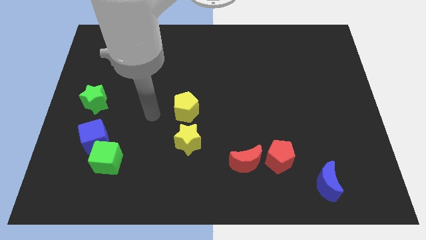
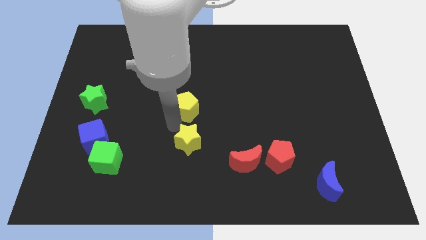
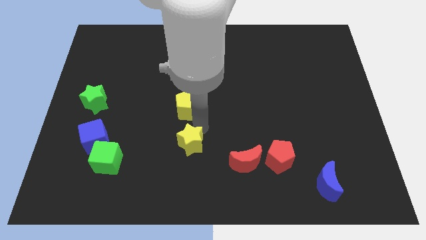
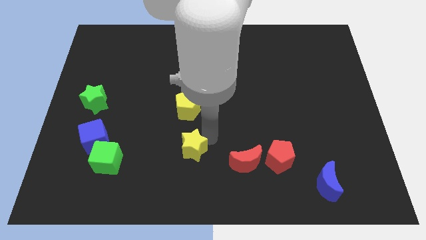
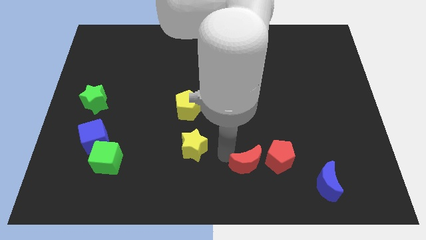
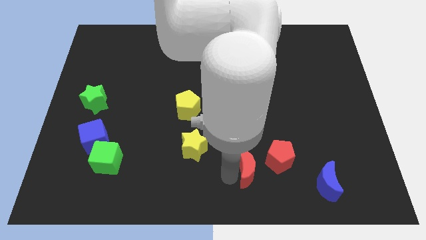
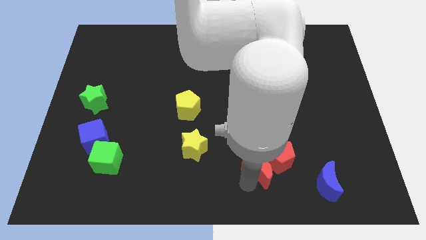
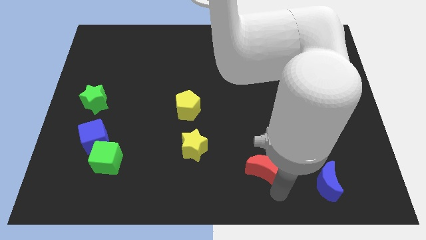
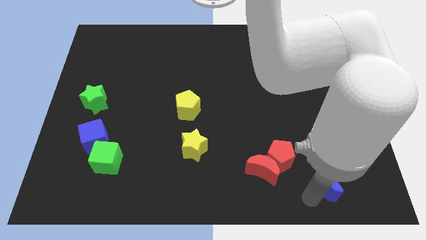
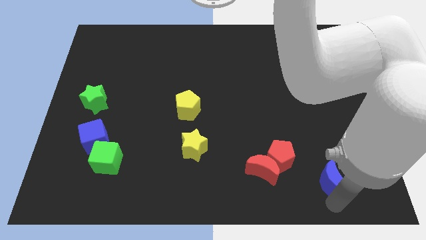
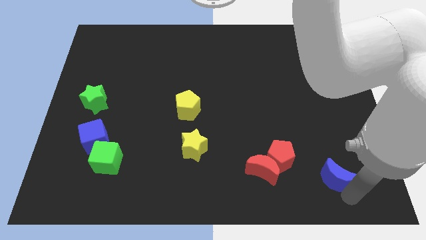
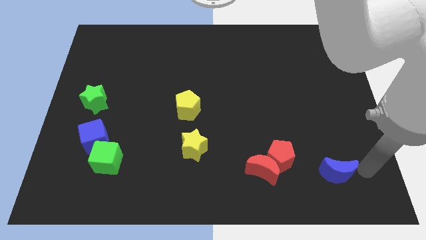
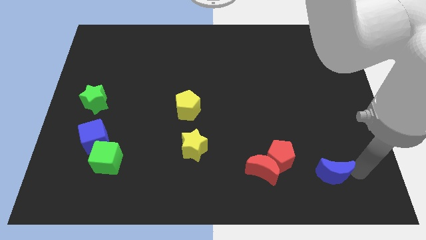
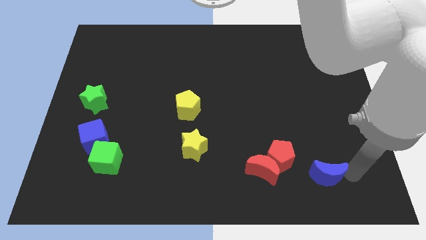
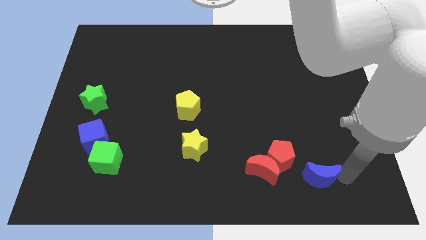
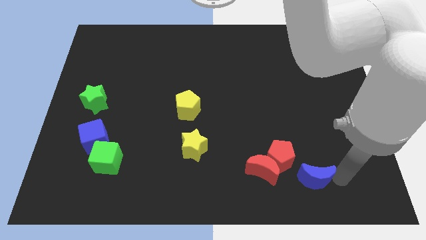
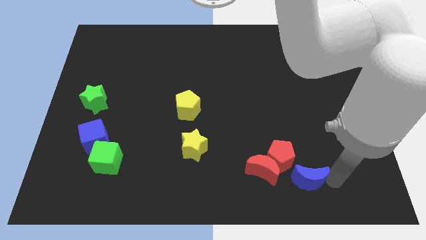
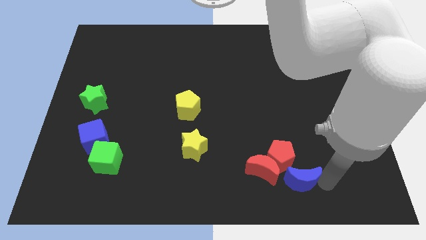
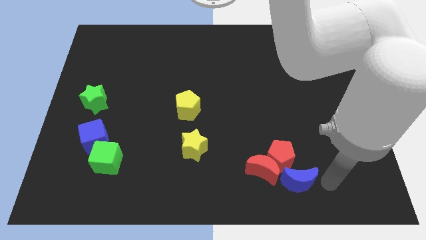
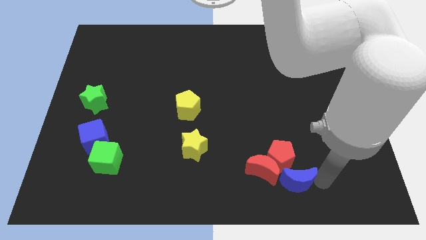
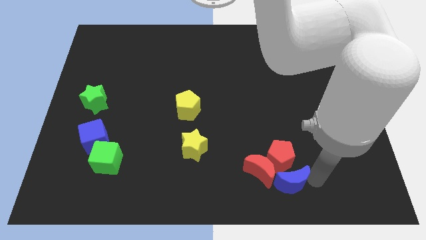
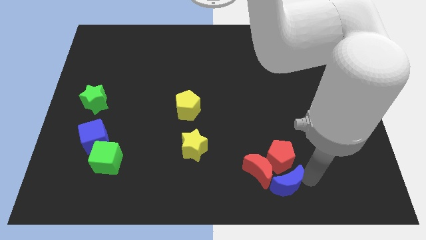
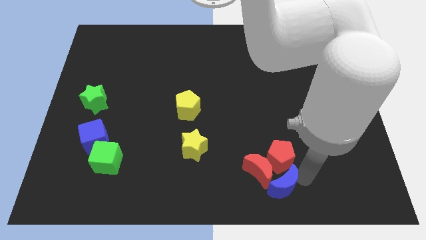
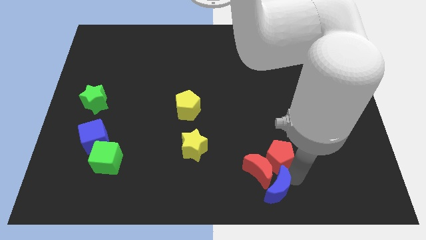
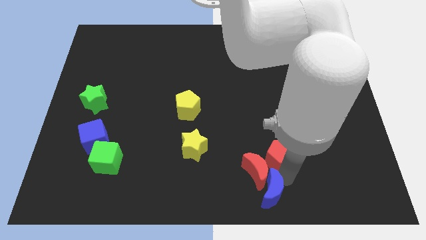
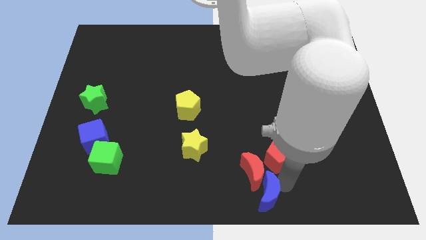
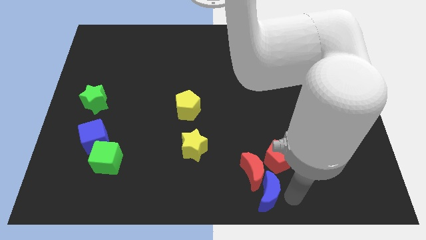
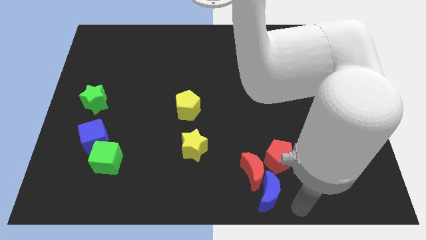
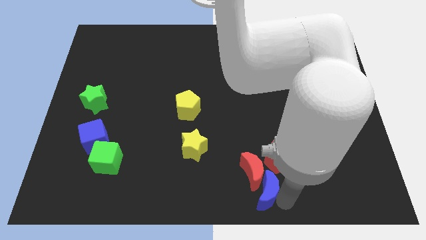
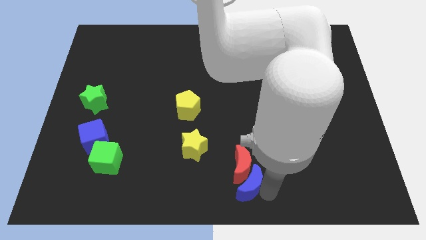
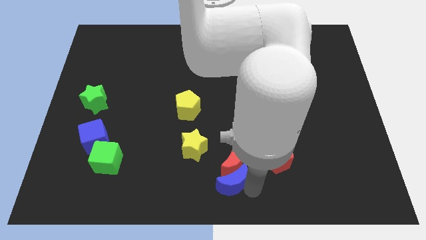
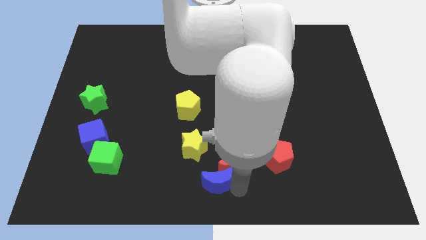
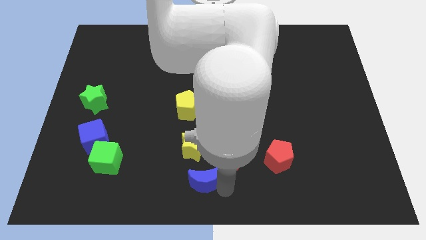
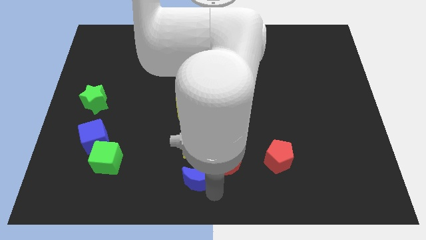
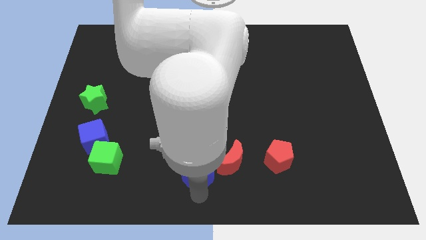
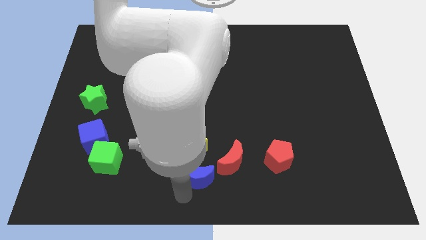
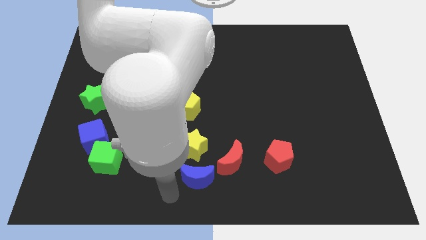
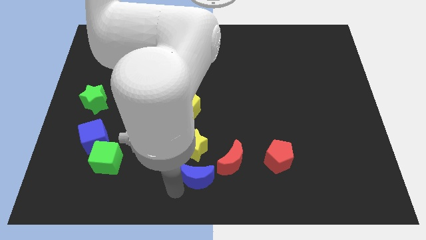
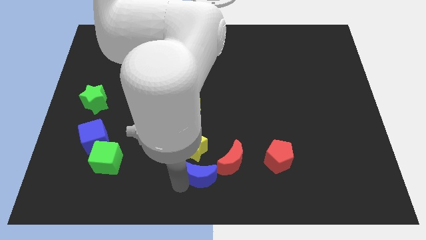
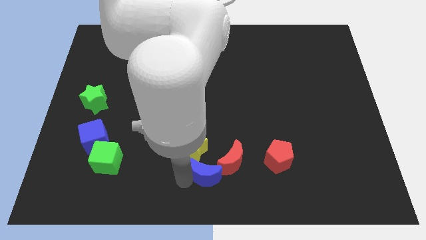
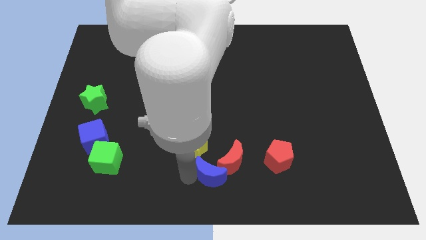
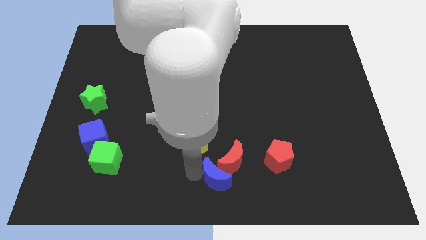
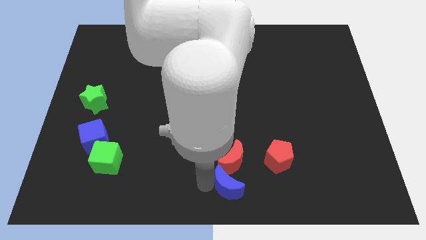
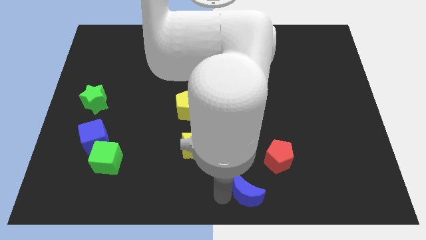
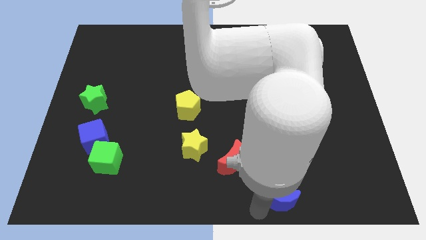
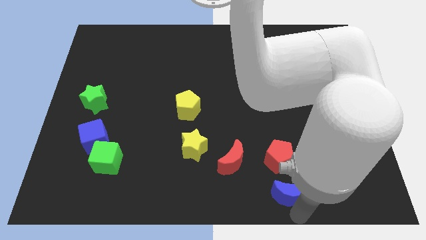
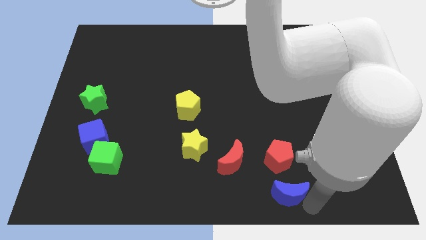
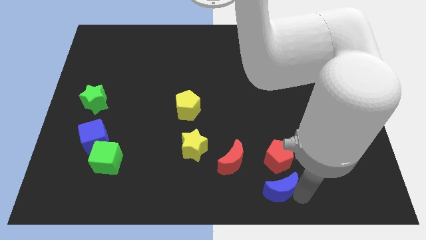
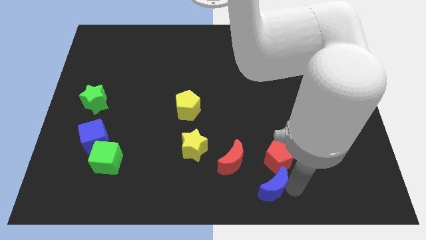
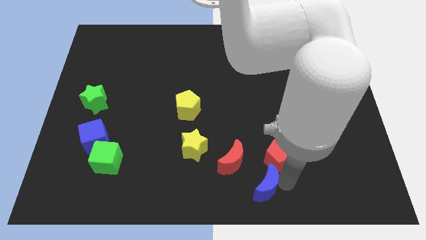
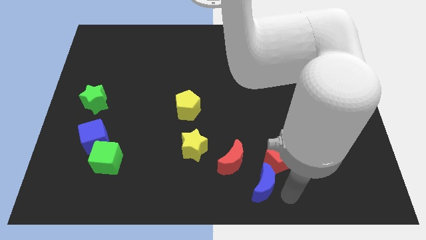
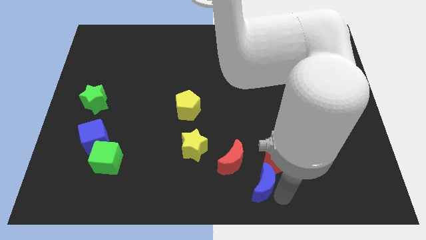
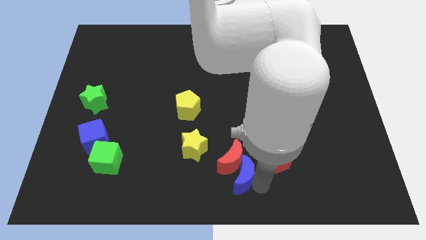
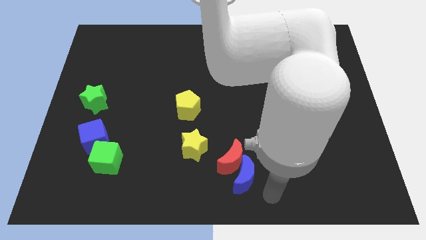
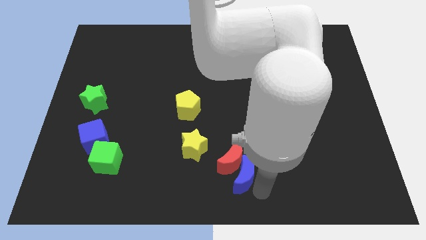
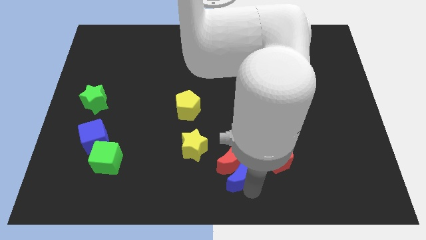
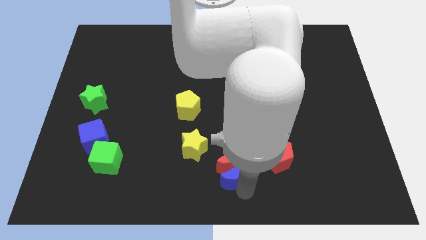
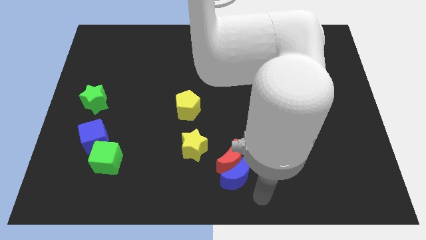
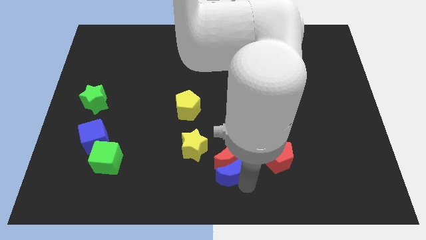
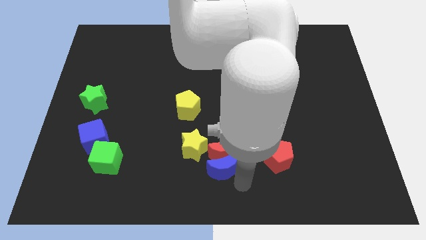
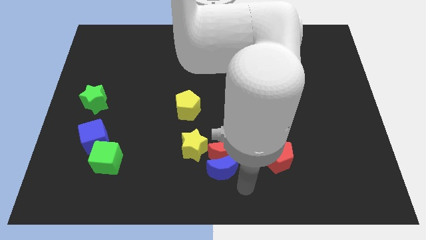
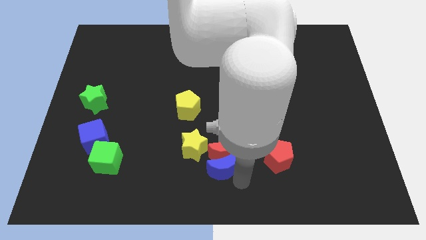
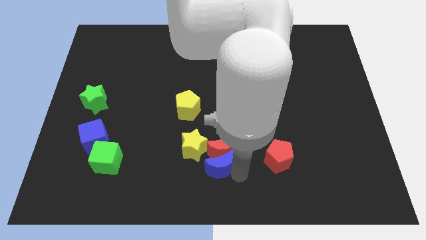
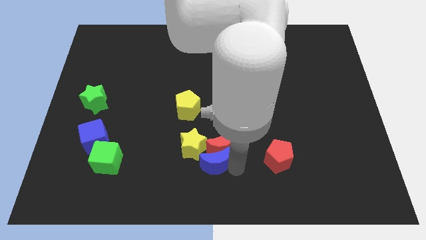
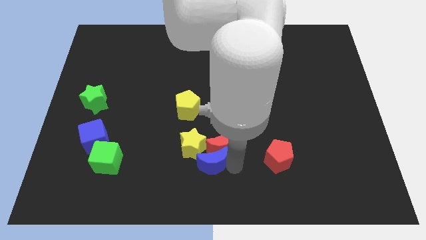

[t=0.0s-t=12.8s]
move the blue moon to the yellow star

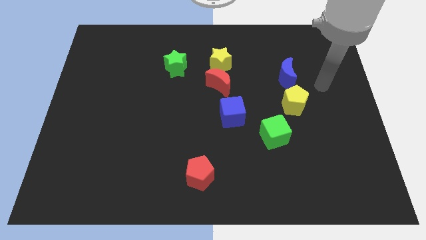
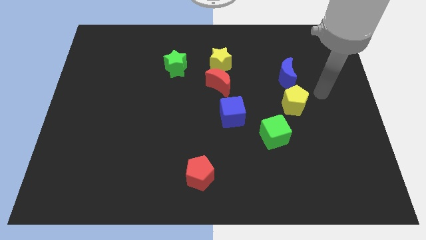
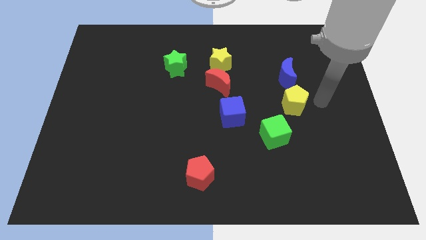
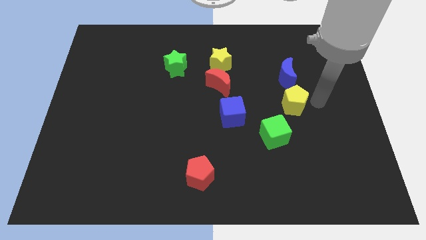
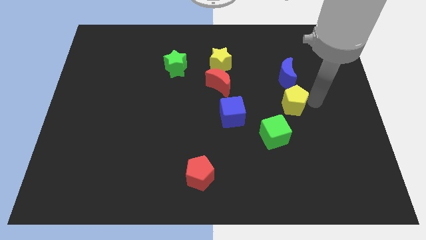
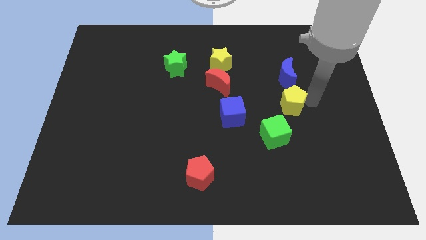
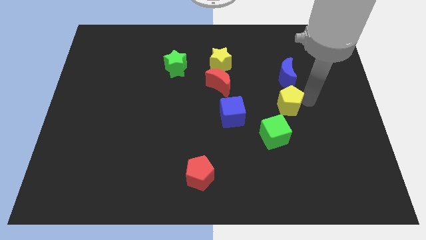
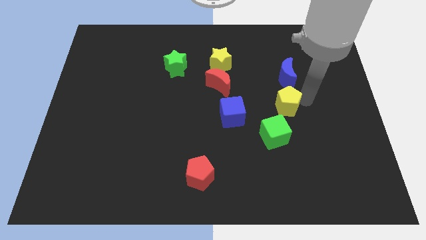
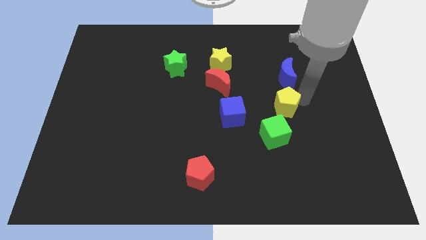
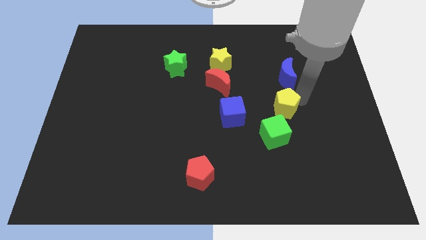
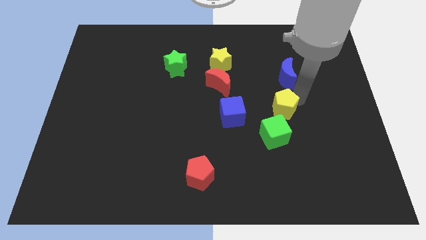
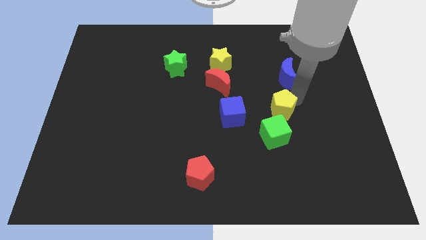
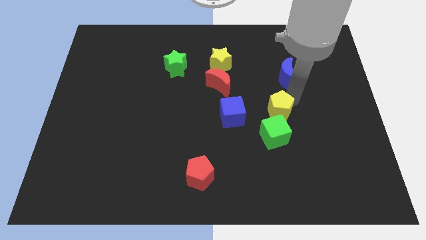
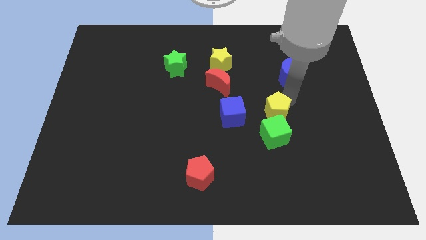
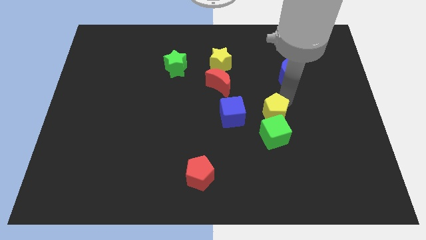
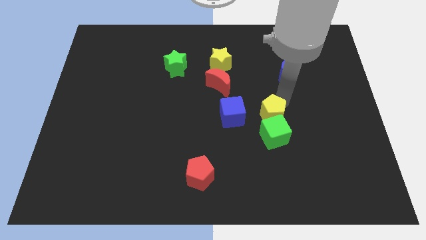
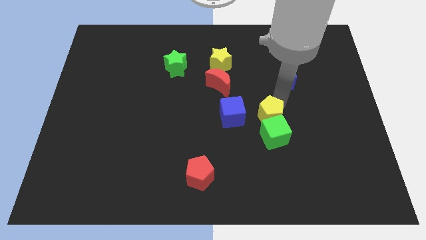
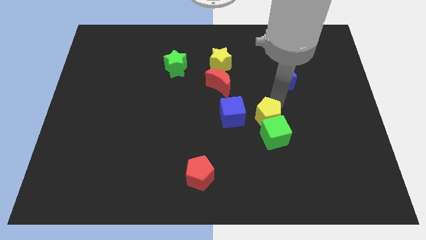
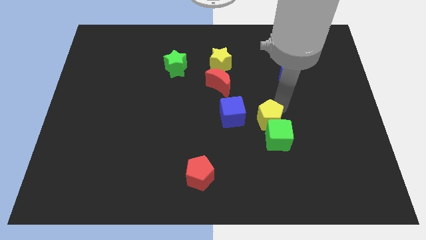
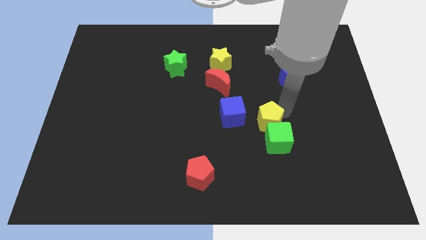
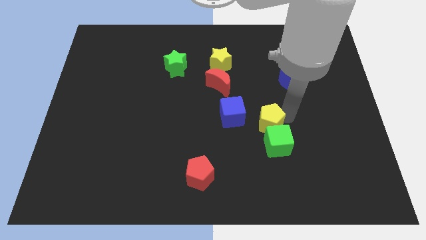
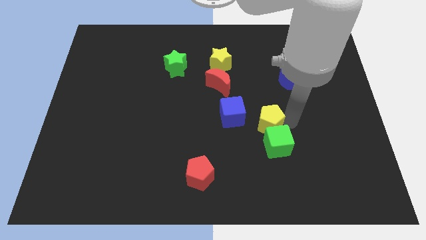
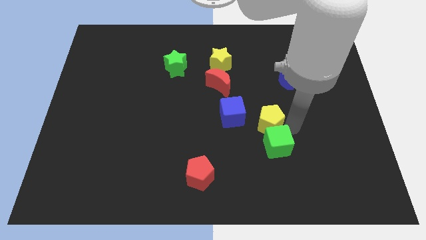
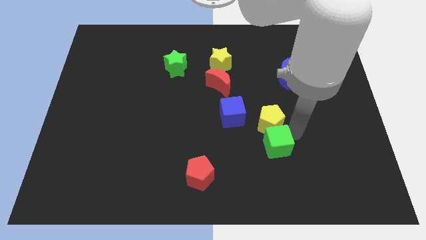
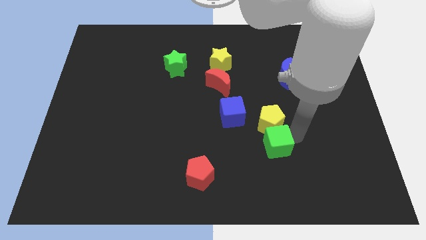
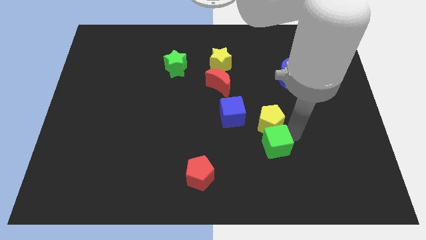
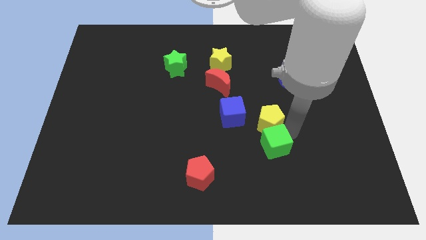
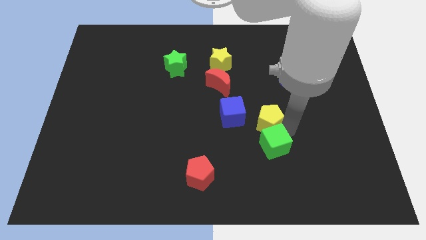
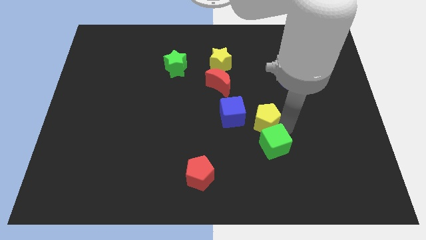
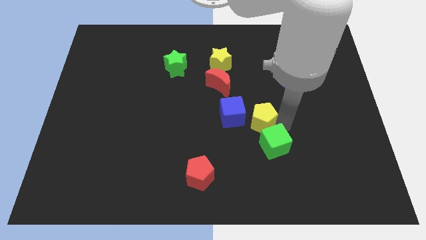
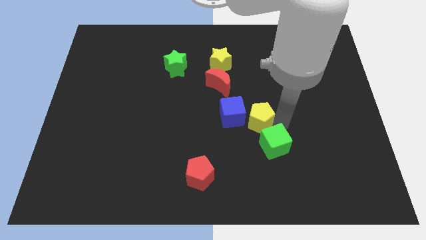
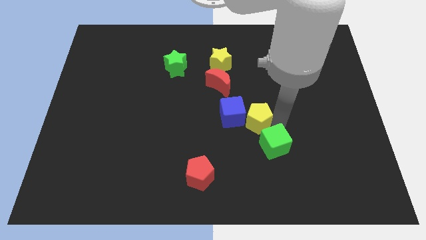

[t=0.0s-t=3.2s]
slide the yellow pentagon towards the blue cube
